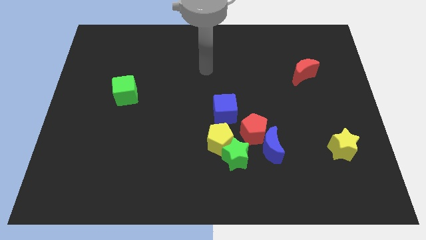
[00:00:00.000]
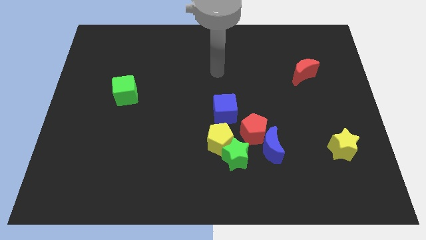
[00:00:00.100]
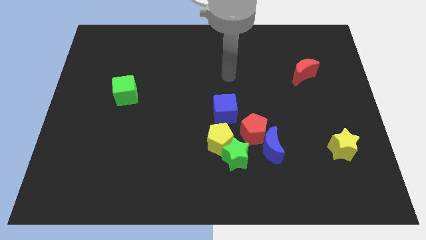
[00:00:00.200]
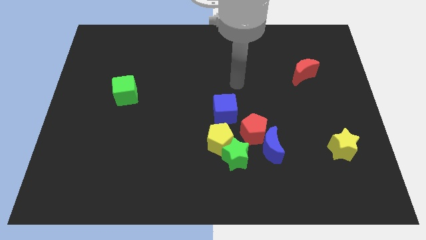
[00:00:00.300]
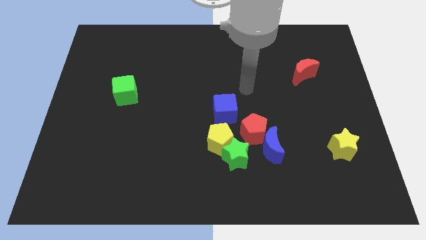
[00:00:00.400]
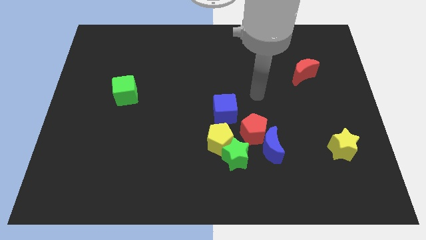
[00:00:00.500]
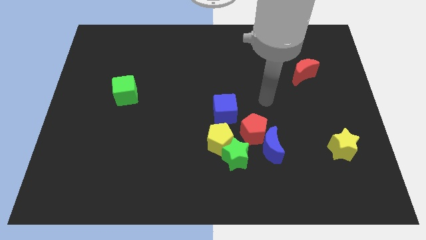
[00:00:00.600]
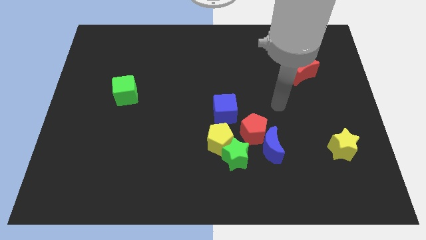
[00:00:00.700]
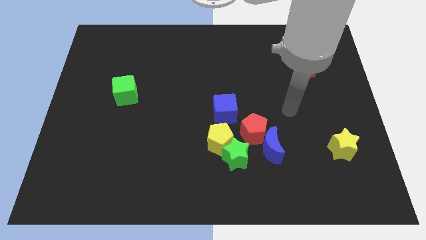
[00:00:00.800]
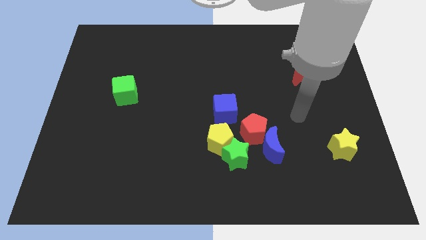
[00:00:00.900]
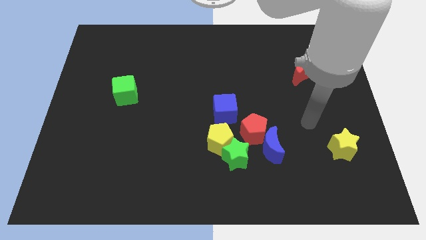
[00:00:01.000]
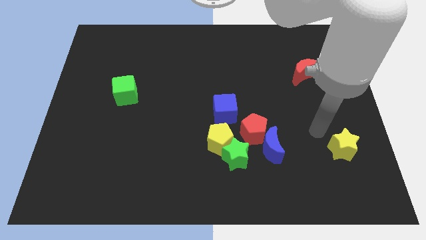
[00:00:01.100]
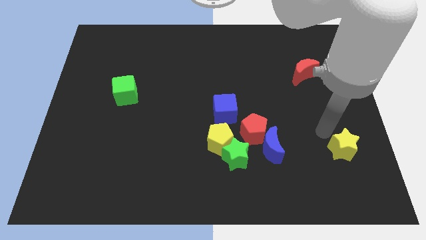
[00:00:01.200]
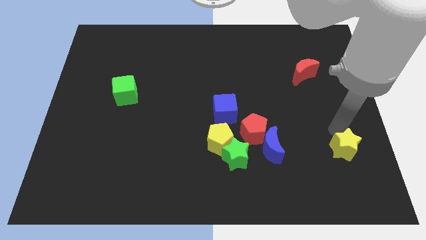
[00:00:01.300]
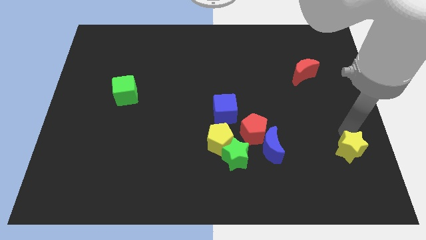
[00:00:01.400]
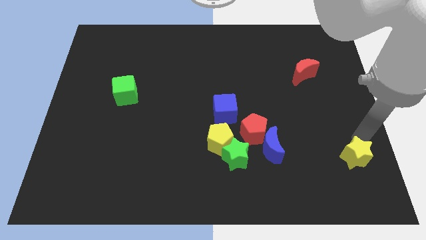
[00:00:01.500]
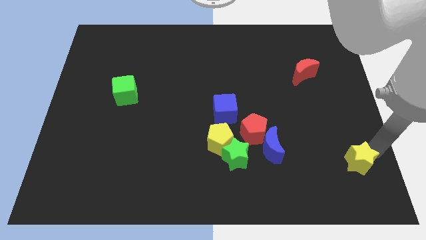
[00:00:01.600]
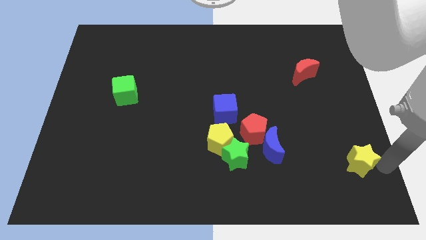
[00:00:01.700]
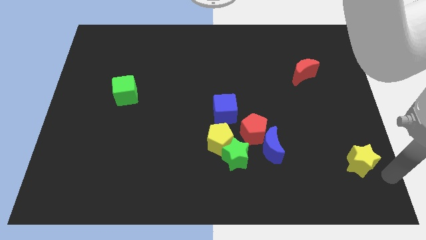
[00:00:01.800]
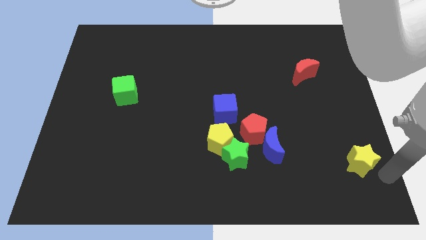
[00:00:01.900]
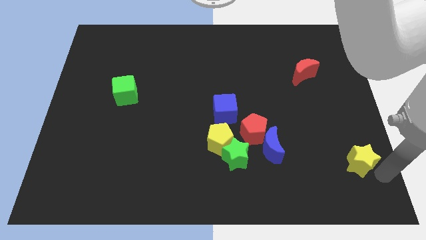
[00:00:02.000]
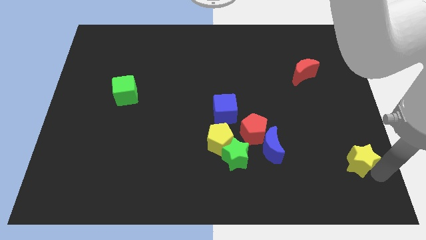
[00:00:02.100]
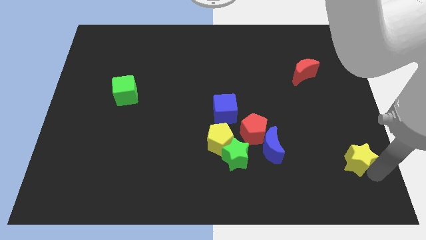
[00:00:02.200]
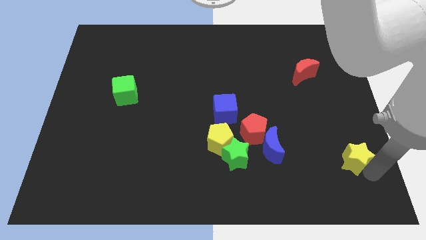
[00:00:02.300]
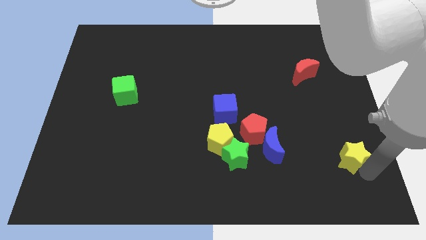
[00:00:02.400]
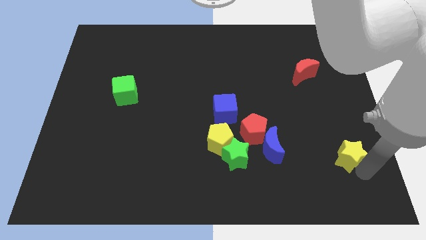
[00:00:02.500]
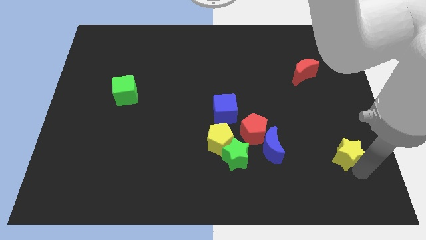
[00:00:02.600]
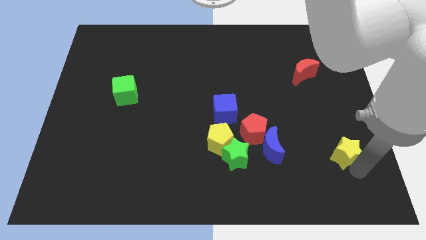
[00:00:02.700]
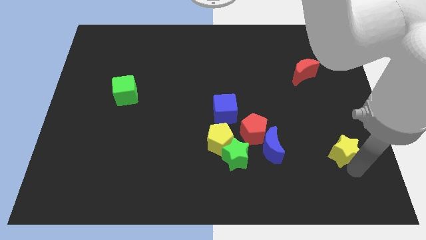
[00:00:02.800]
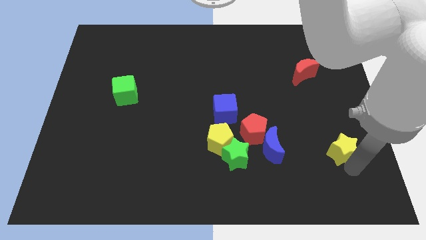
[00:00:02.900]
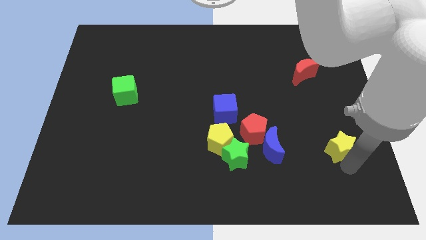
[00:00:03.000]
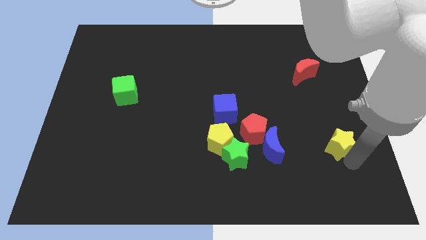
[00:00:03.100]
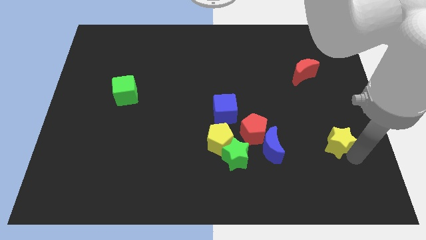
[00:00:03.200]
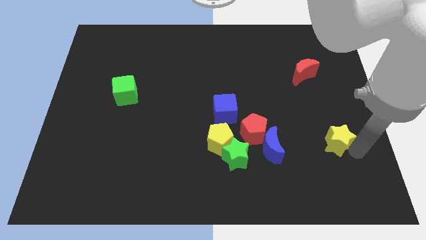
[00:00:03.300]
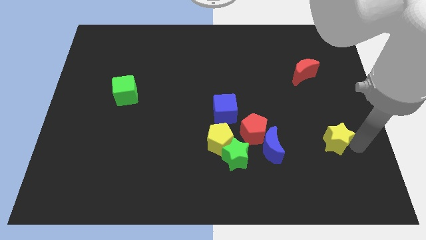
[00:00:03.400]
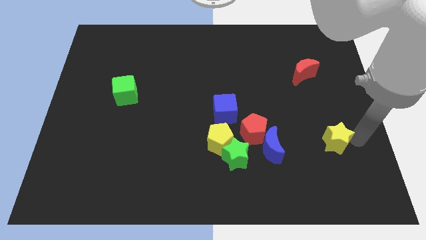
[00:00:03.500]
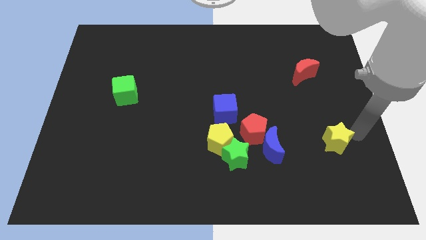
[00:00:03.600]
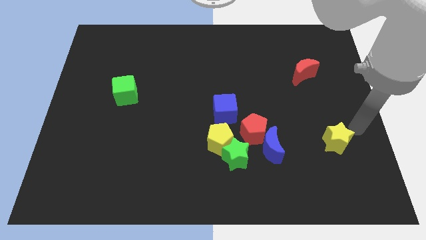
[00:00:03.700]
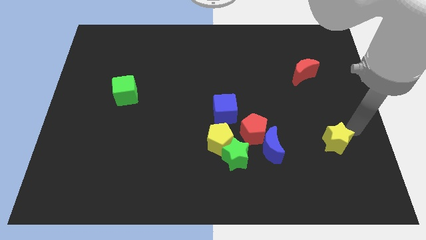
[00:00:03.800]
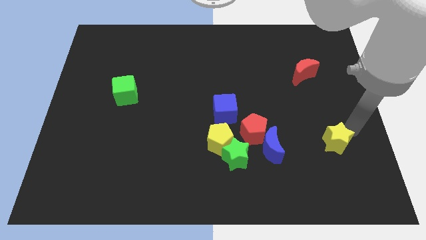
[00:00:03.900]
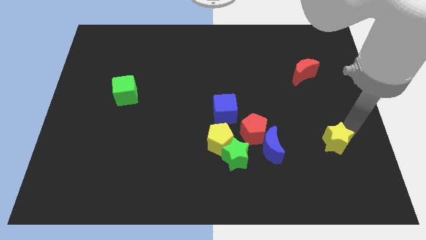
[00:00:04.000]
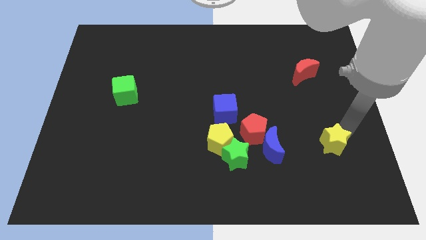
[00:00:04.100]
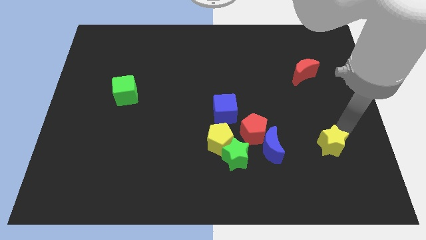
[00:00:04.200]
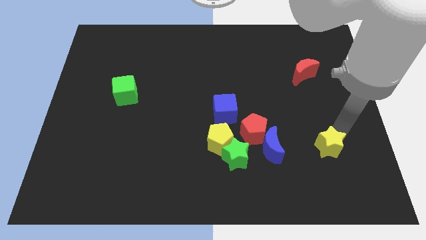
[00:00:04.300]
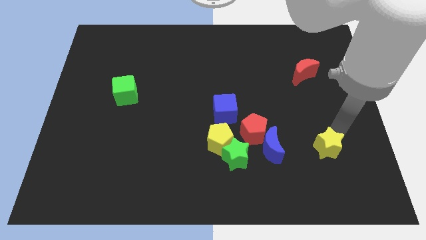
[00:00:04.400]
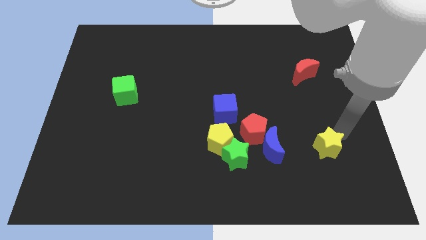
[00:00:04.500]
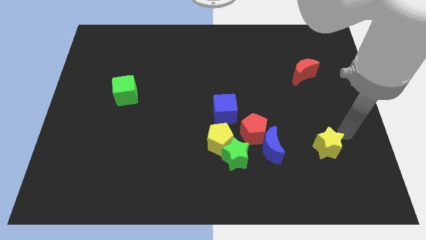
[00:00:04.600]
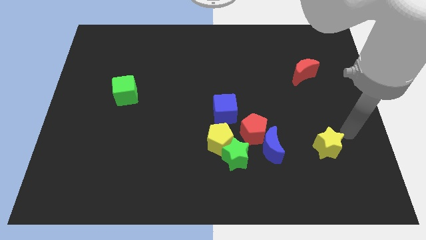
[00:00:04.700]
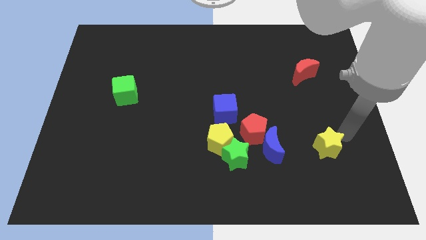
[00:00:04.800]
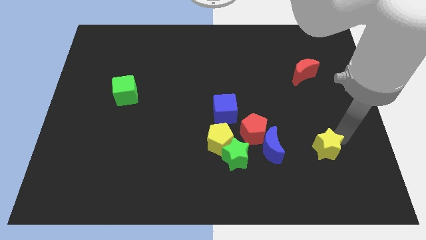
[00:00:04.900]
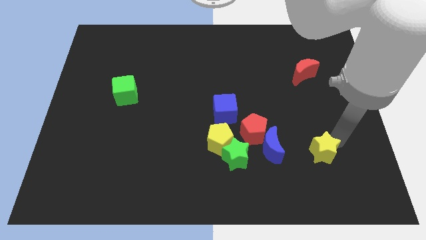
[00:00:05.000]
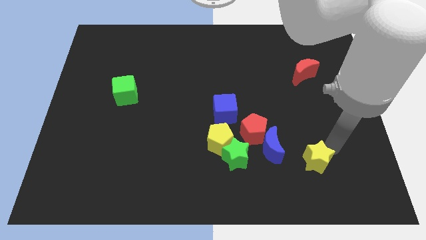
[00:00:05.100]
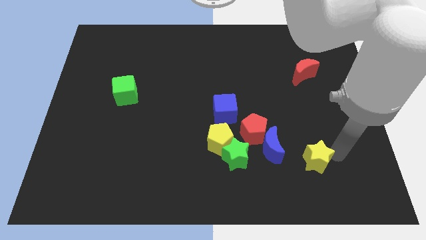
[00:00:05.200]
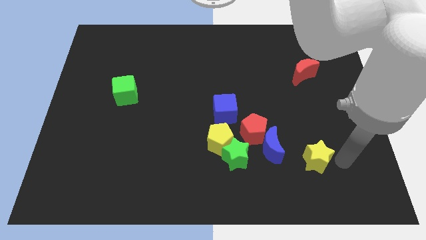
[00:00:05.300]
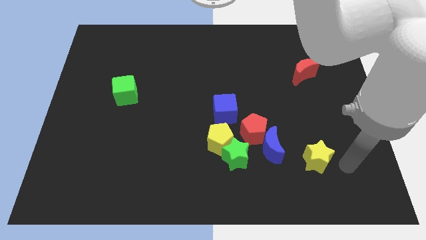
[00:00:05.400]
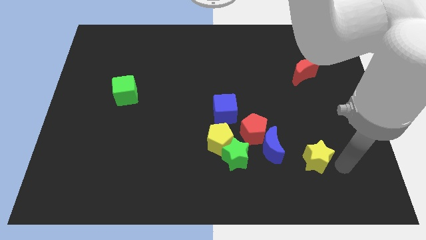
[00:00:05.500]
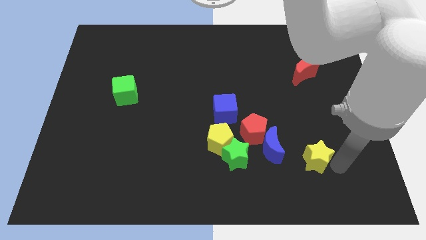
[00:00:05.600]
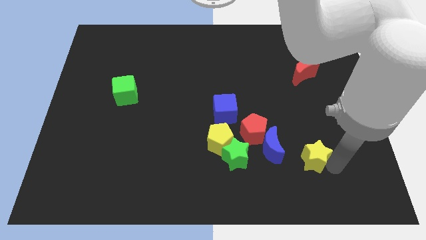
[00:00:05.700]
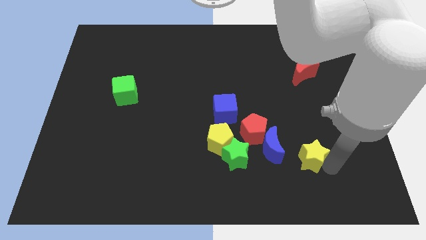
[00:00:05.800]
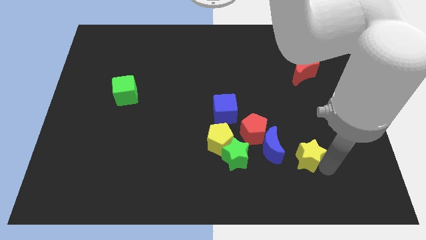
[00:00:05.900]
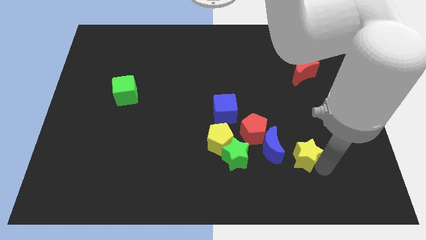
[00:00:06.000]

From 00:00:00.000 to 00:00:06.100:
push the yellow star diagonally down and to the right of the red pentagon
